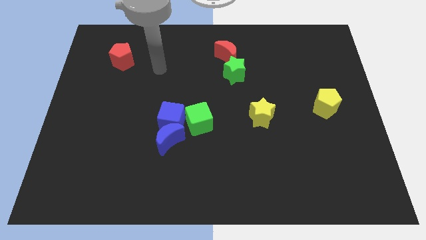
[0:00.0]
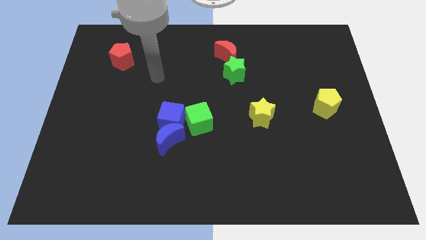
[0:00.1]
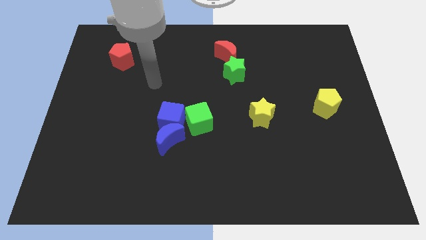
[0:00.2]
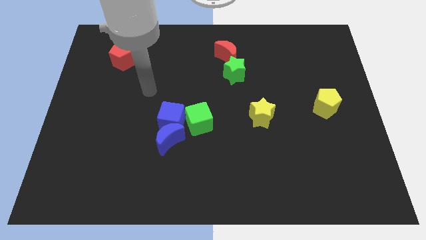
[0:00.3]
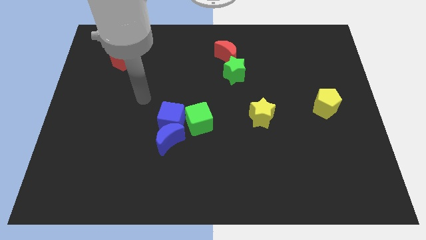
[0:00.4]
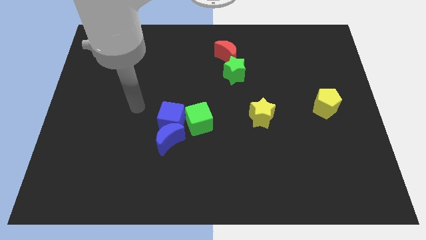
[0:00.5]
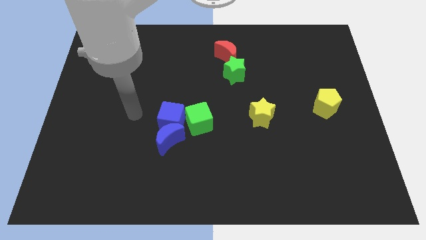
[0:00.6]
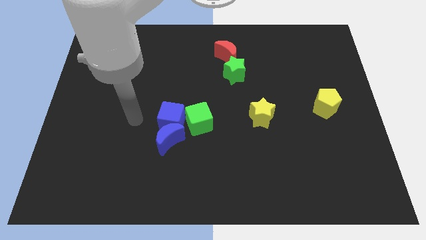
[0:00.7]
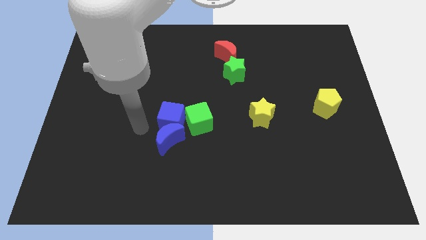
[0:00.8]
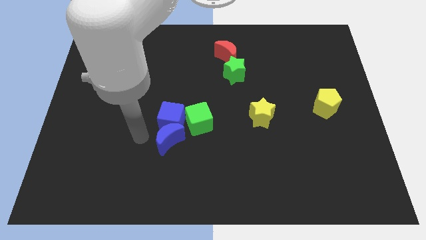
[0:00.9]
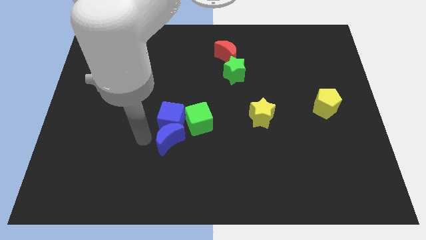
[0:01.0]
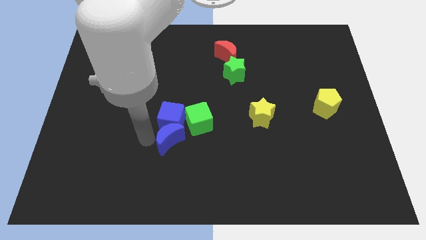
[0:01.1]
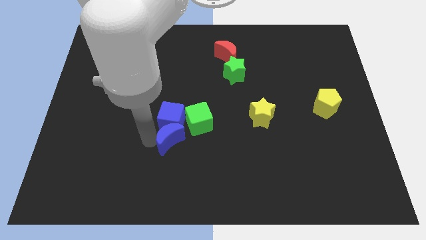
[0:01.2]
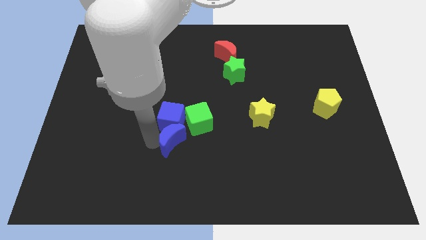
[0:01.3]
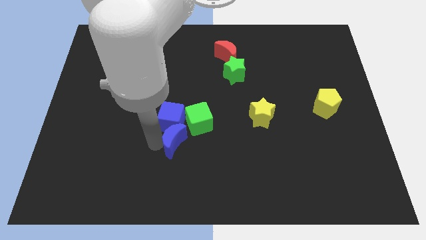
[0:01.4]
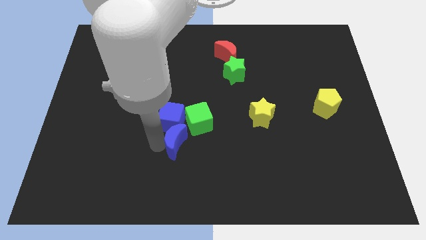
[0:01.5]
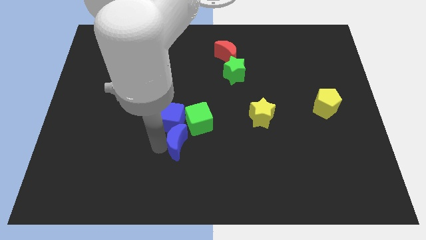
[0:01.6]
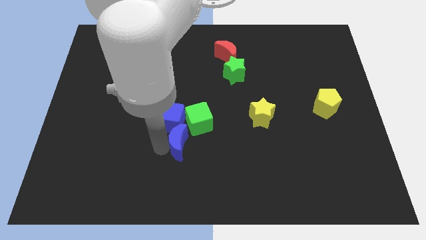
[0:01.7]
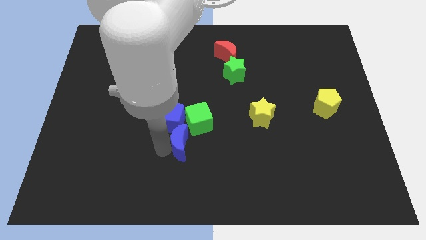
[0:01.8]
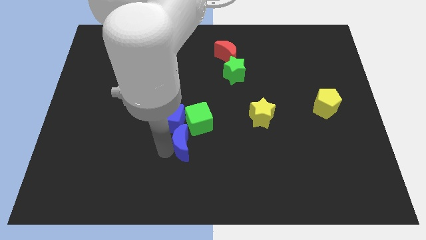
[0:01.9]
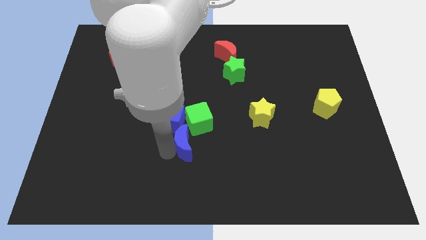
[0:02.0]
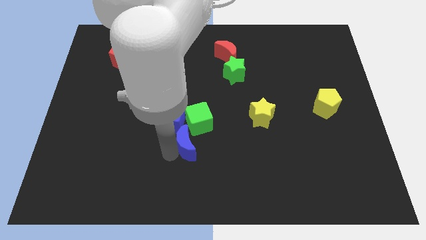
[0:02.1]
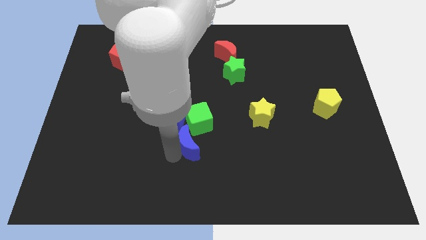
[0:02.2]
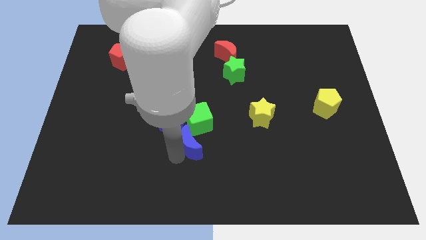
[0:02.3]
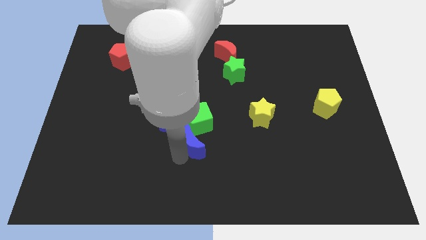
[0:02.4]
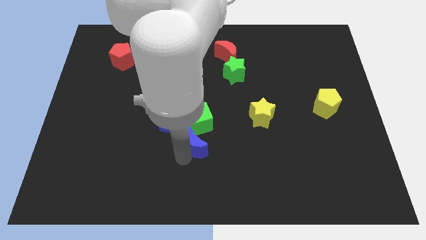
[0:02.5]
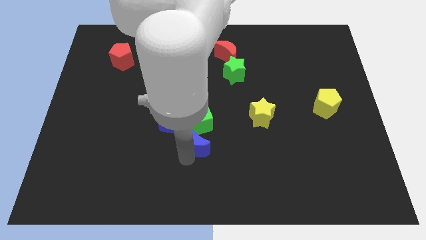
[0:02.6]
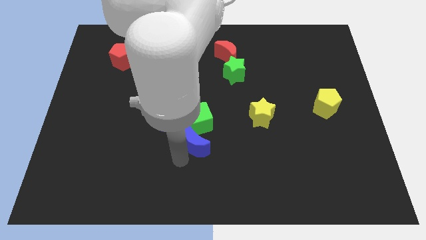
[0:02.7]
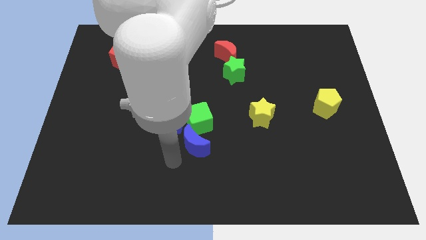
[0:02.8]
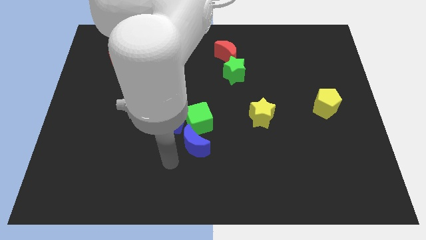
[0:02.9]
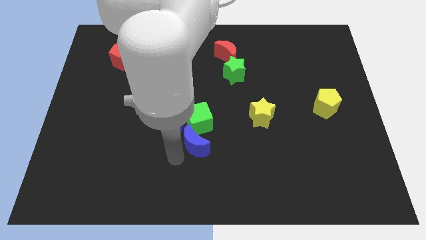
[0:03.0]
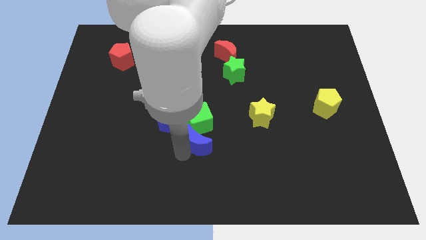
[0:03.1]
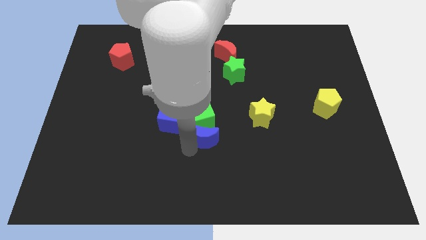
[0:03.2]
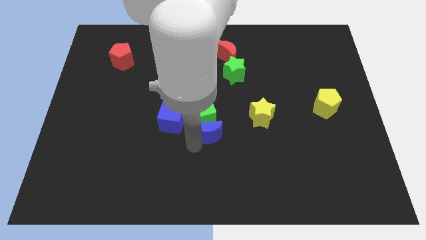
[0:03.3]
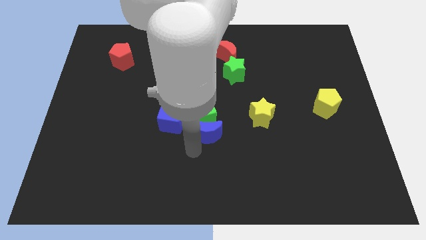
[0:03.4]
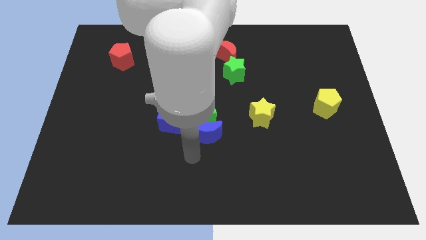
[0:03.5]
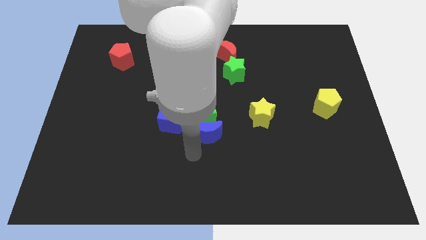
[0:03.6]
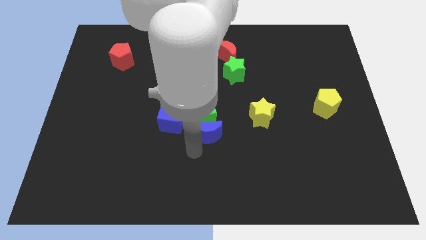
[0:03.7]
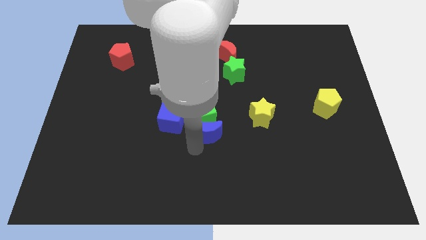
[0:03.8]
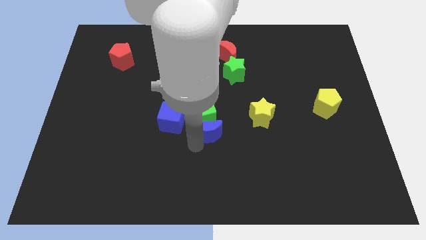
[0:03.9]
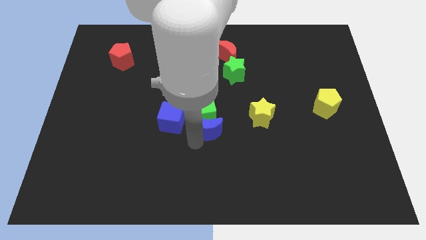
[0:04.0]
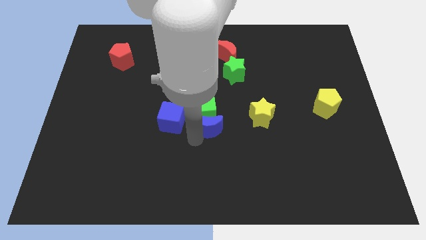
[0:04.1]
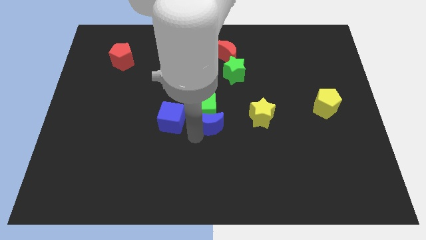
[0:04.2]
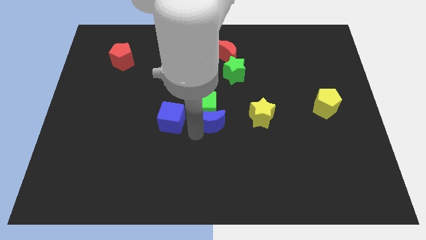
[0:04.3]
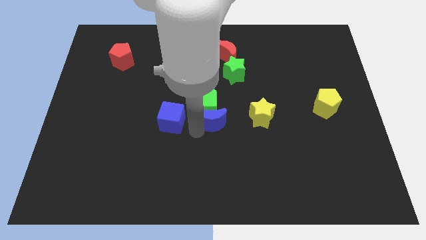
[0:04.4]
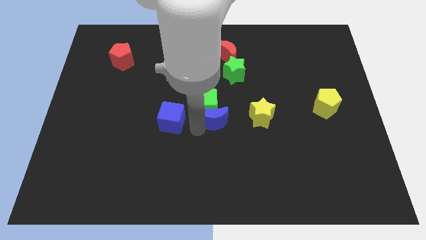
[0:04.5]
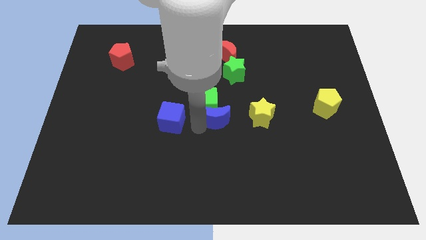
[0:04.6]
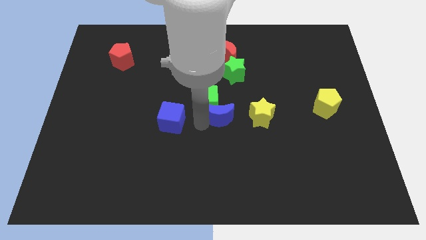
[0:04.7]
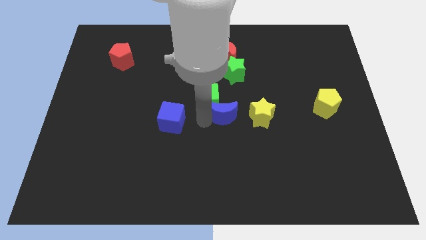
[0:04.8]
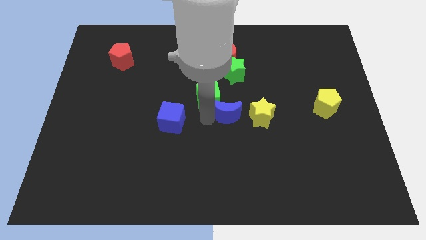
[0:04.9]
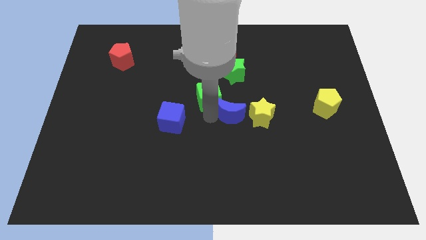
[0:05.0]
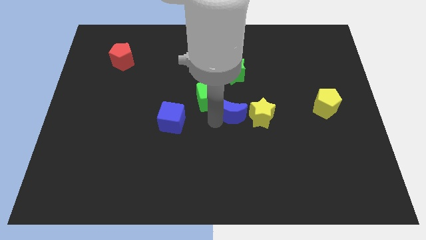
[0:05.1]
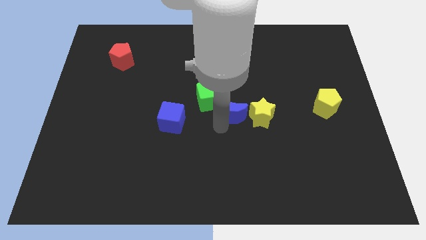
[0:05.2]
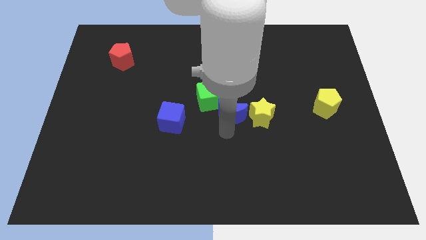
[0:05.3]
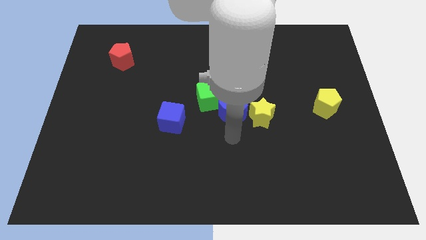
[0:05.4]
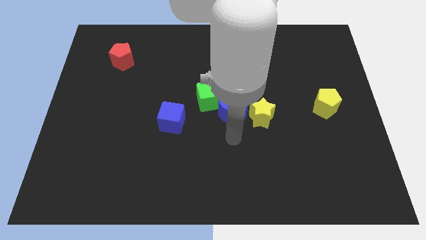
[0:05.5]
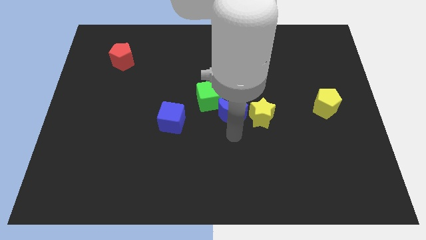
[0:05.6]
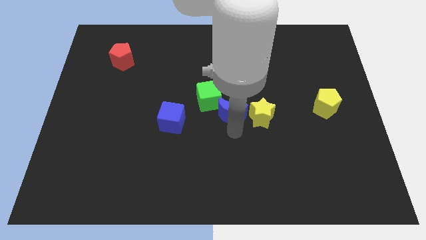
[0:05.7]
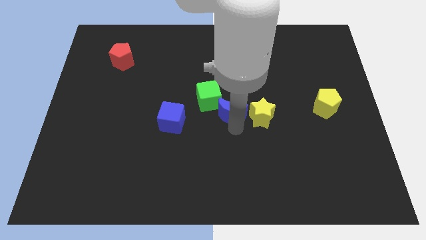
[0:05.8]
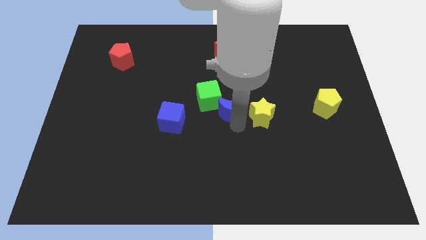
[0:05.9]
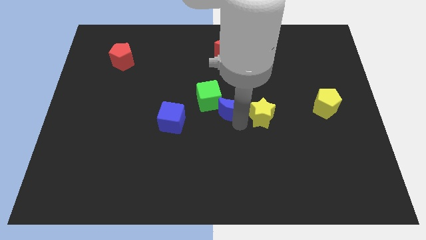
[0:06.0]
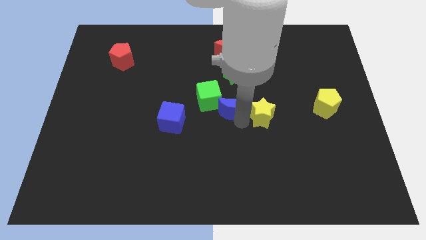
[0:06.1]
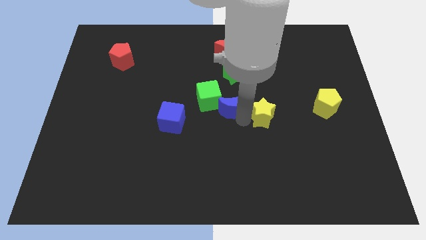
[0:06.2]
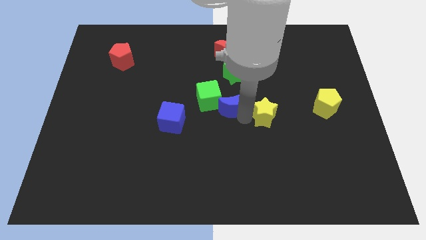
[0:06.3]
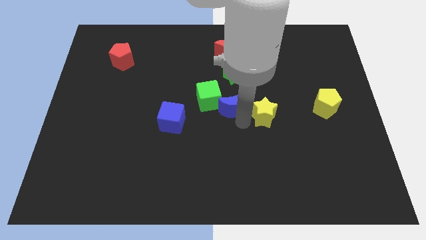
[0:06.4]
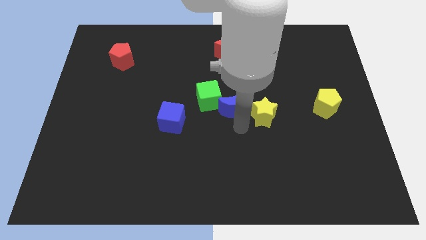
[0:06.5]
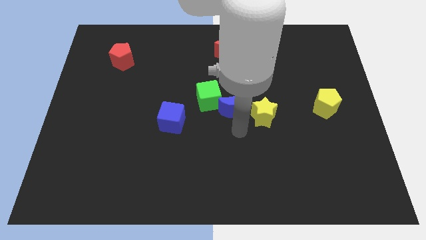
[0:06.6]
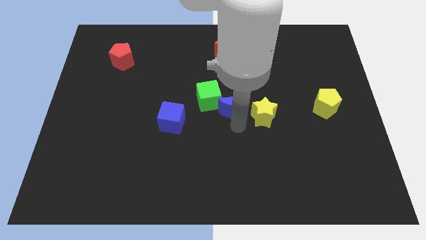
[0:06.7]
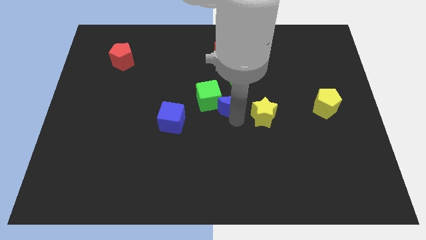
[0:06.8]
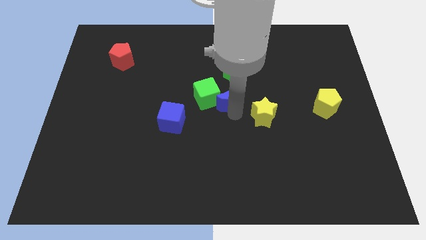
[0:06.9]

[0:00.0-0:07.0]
push the blue moon to the bottom side of the red moon

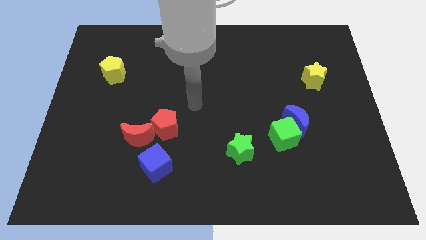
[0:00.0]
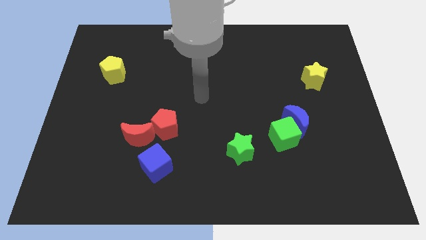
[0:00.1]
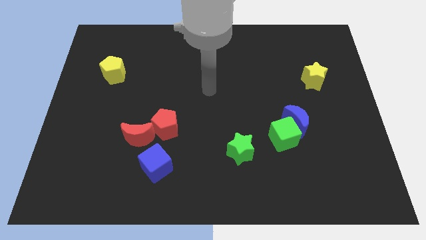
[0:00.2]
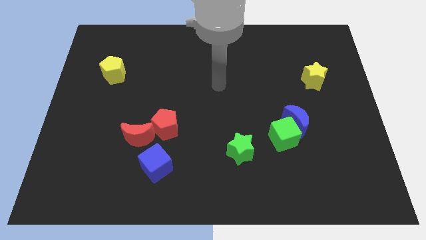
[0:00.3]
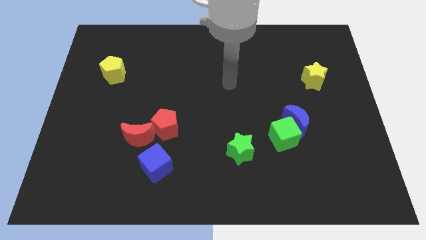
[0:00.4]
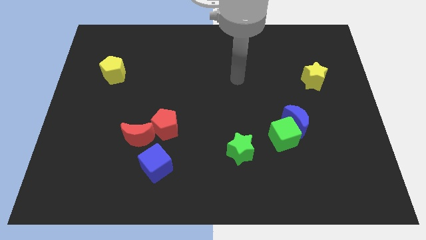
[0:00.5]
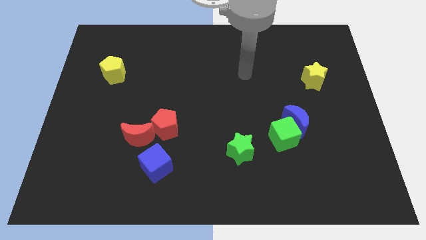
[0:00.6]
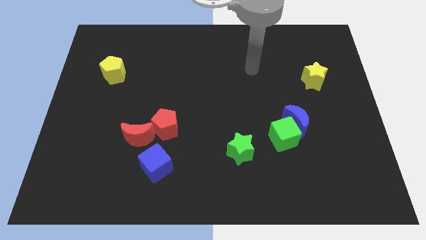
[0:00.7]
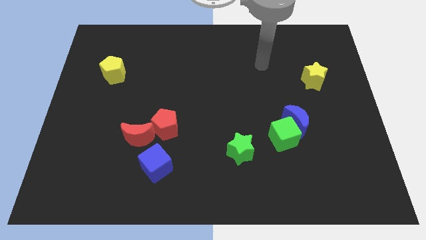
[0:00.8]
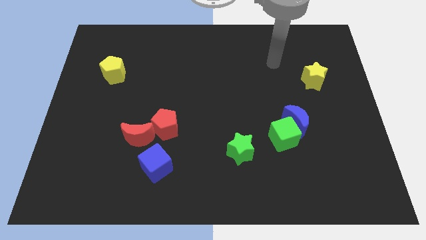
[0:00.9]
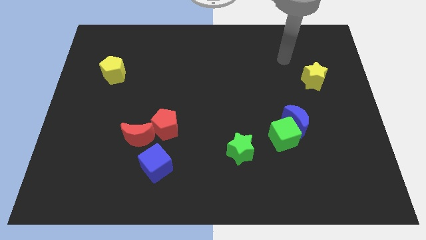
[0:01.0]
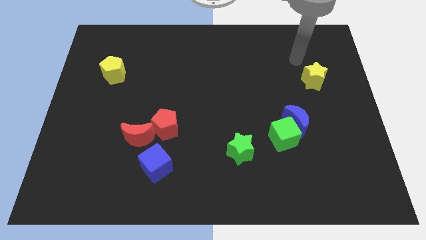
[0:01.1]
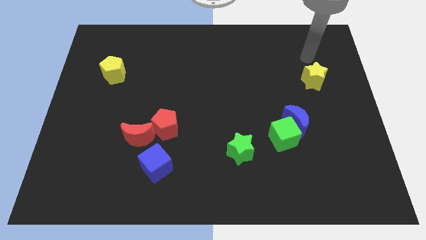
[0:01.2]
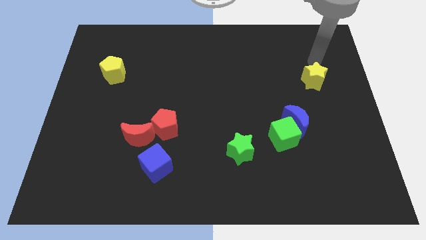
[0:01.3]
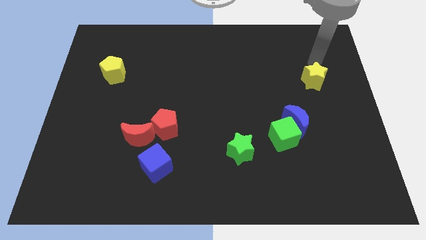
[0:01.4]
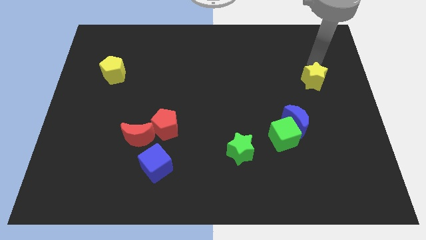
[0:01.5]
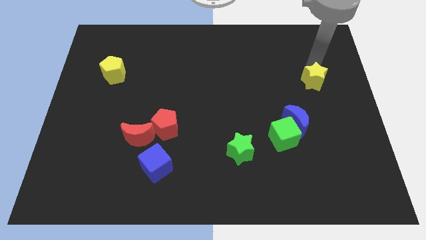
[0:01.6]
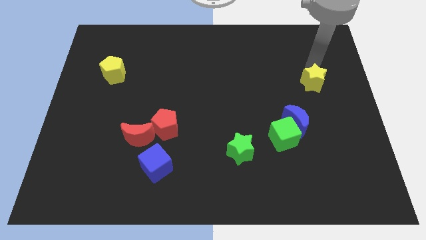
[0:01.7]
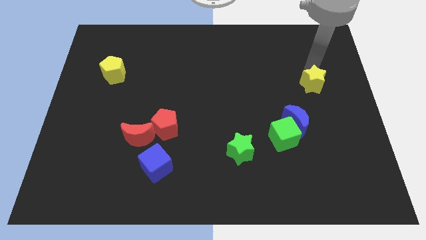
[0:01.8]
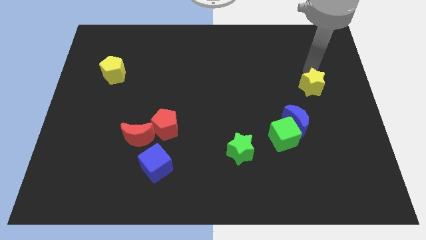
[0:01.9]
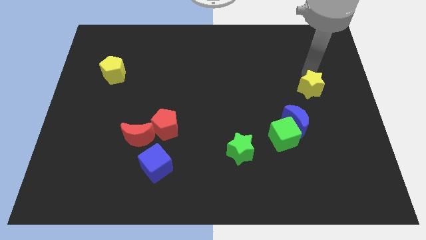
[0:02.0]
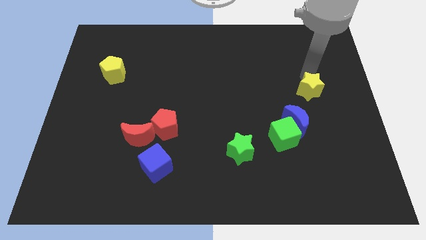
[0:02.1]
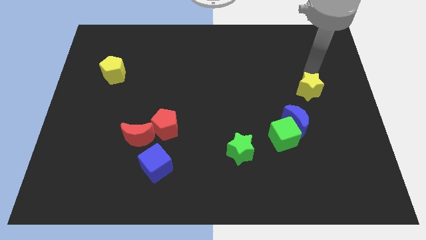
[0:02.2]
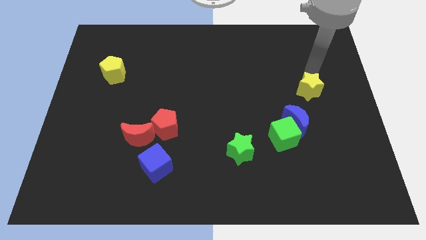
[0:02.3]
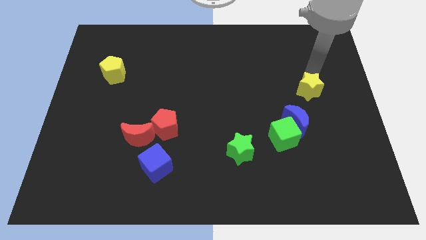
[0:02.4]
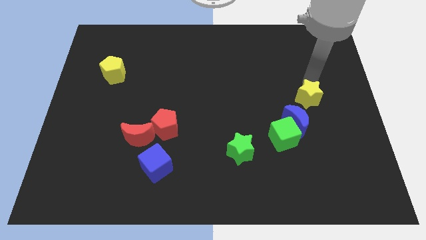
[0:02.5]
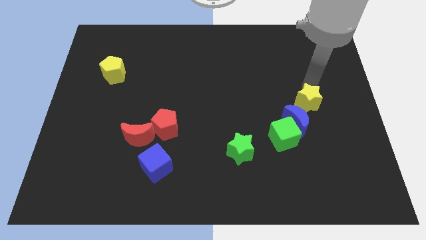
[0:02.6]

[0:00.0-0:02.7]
put the yellow star diagonally up and to the right of the green cube
